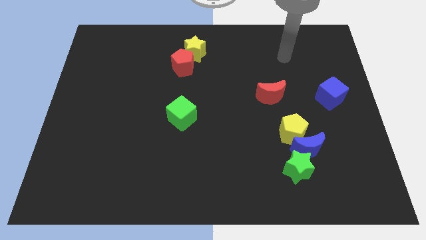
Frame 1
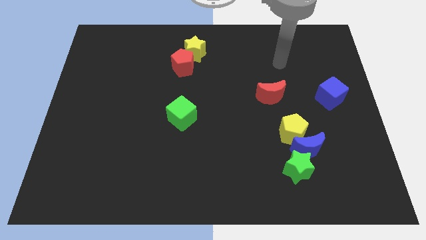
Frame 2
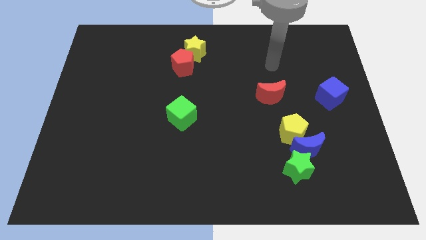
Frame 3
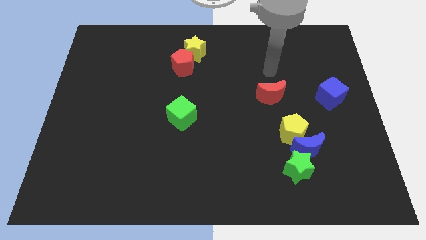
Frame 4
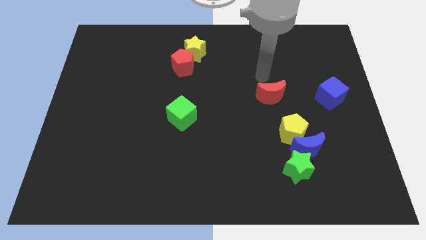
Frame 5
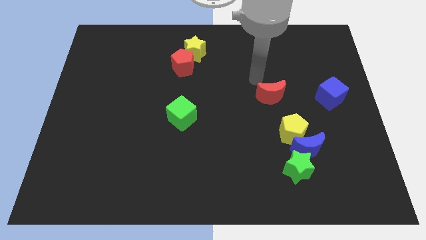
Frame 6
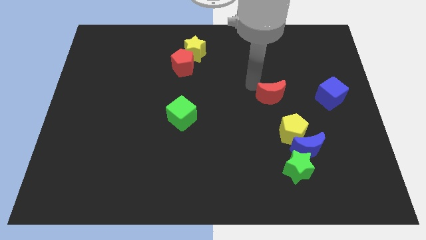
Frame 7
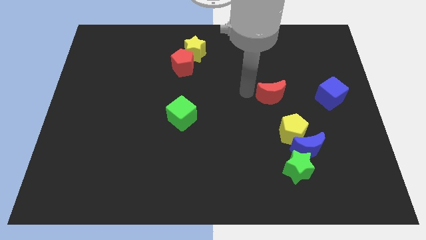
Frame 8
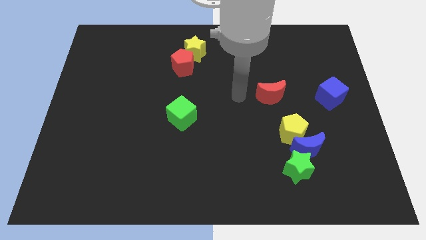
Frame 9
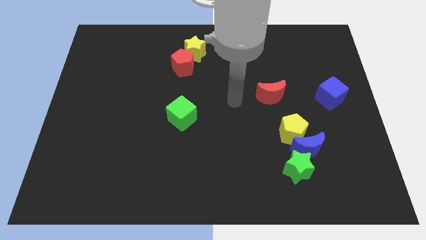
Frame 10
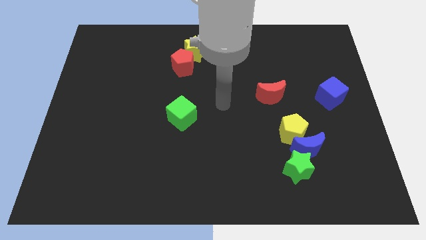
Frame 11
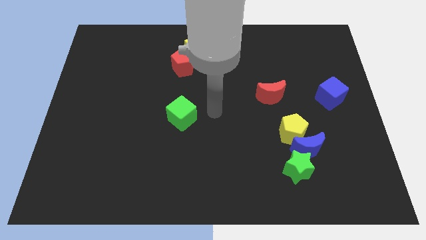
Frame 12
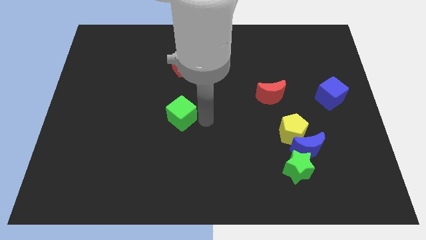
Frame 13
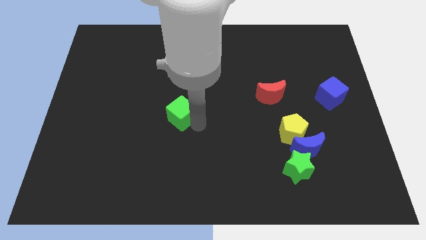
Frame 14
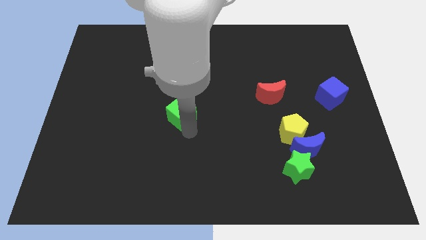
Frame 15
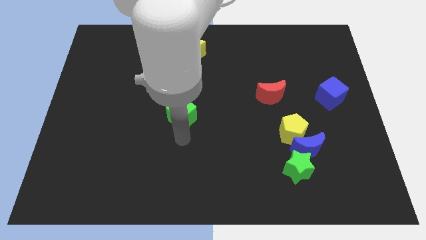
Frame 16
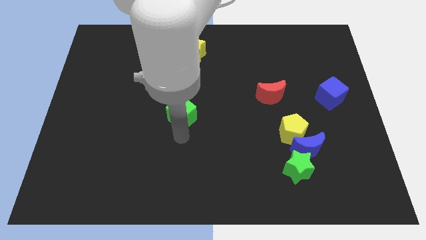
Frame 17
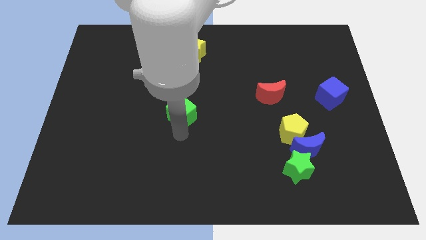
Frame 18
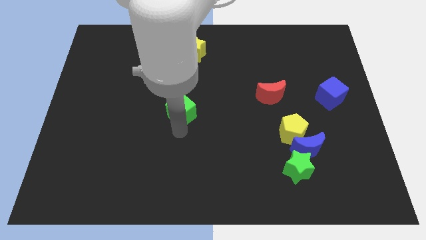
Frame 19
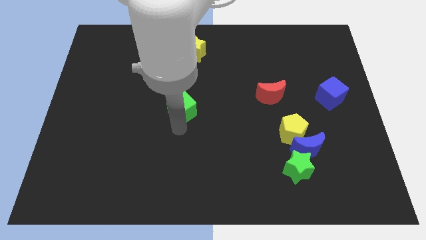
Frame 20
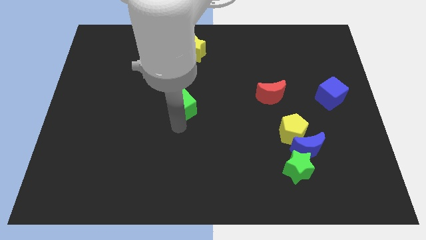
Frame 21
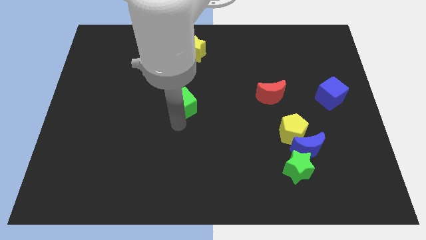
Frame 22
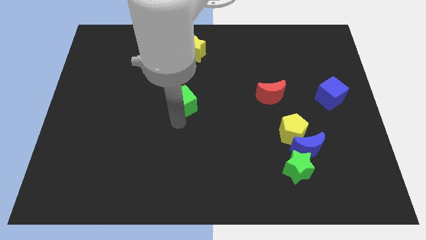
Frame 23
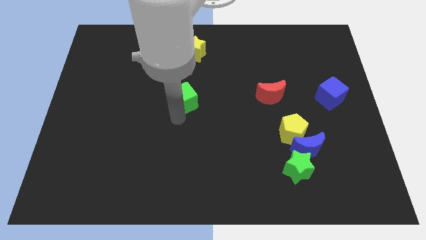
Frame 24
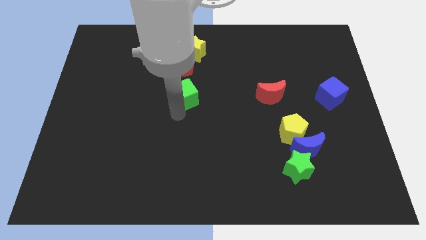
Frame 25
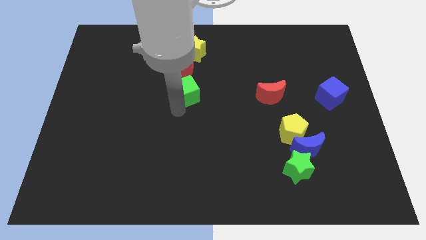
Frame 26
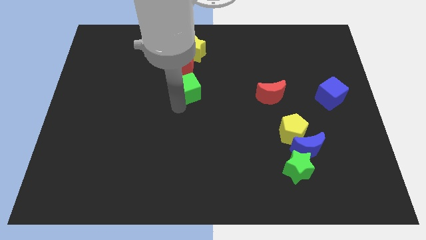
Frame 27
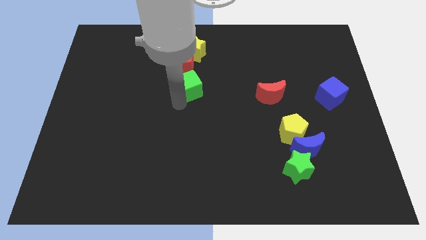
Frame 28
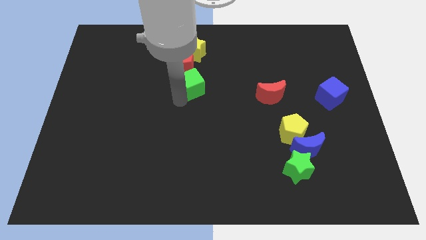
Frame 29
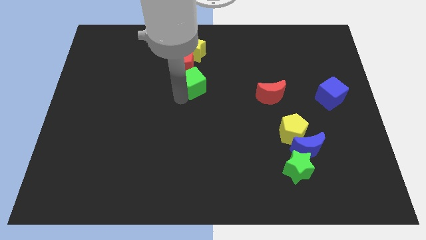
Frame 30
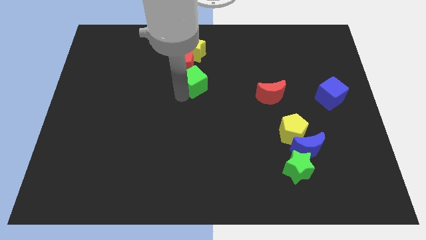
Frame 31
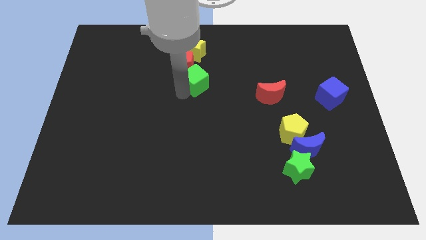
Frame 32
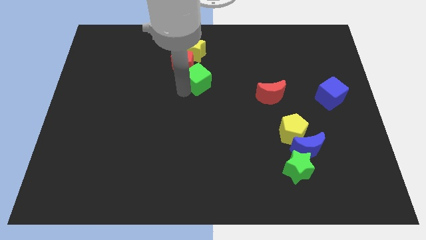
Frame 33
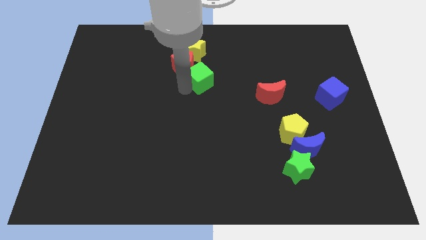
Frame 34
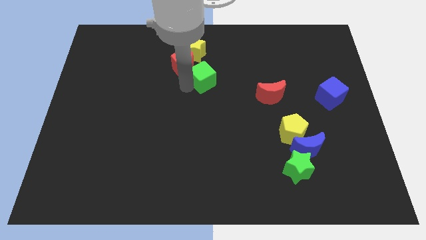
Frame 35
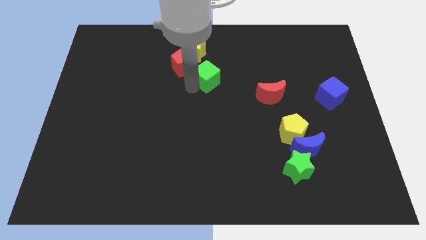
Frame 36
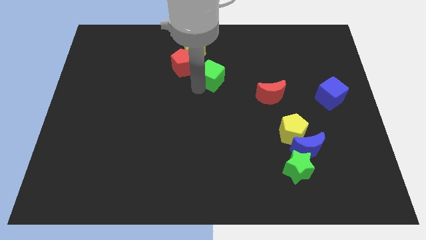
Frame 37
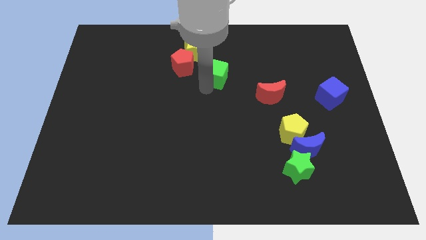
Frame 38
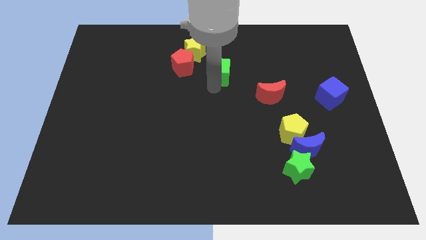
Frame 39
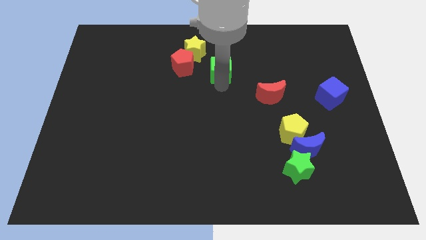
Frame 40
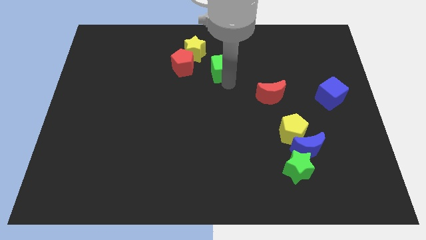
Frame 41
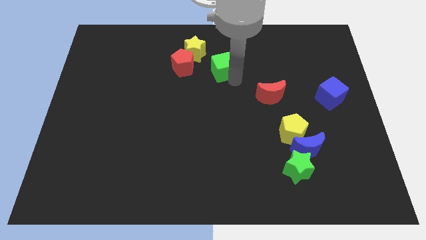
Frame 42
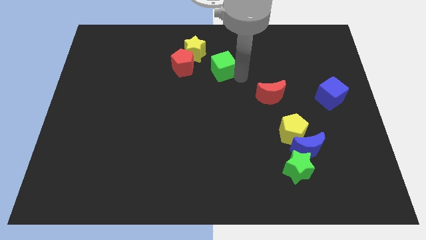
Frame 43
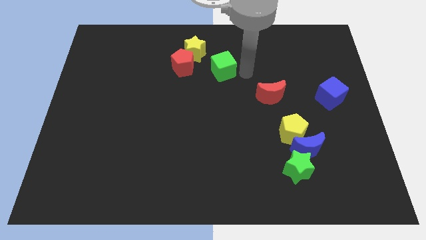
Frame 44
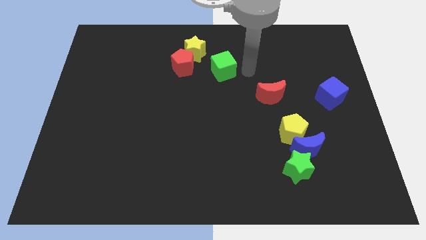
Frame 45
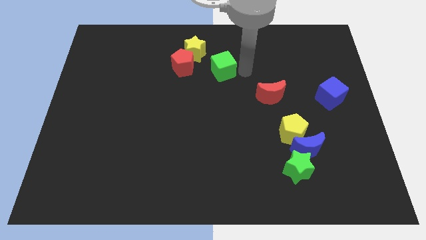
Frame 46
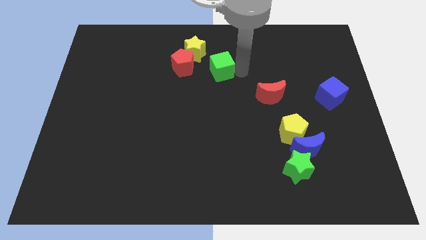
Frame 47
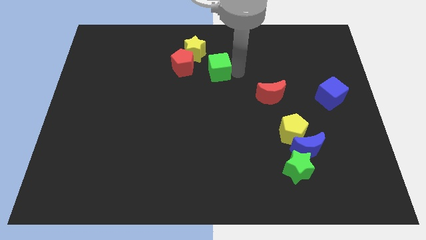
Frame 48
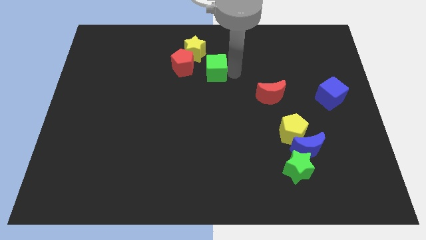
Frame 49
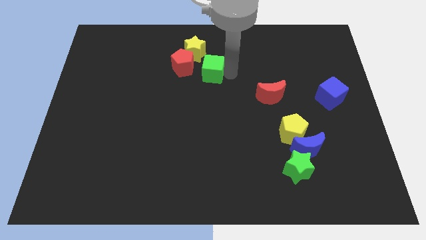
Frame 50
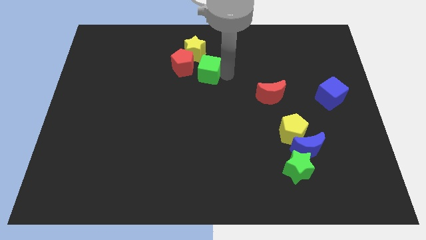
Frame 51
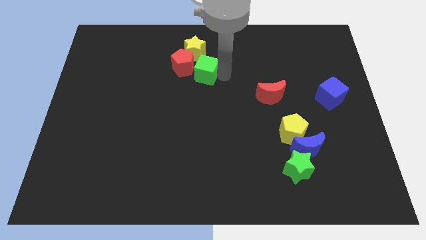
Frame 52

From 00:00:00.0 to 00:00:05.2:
push the green cube close to the red pentagon

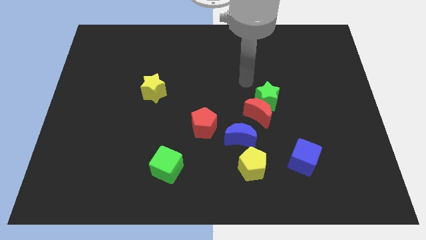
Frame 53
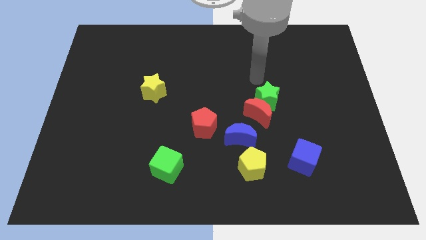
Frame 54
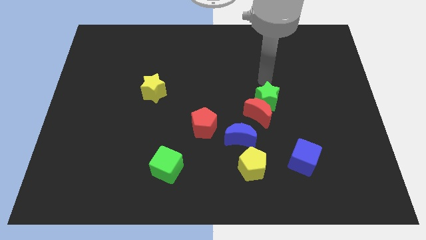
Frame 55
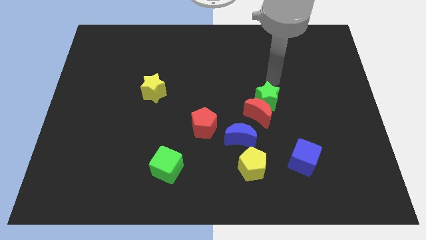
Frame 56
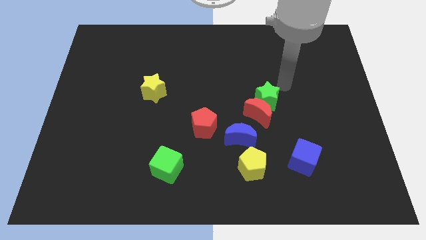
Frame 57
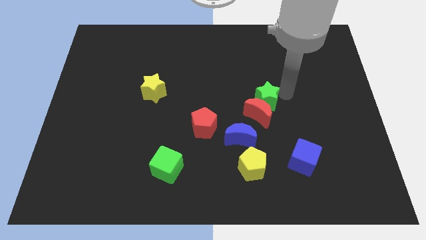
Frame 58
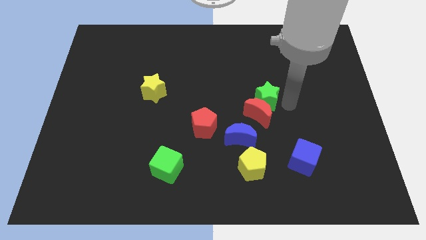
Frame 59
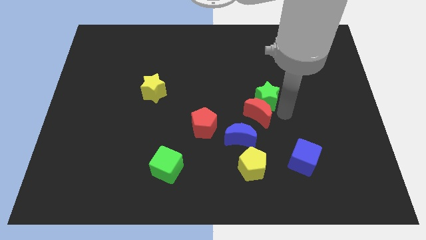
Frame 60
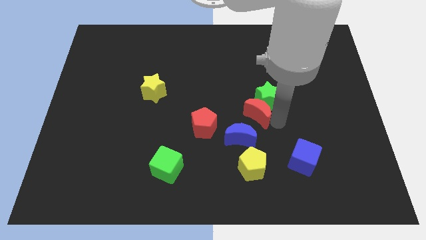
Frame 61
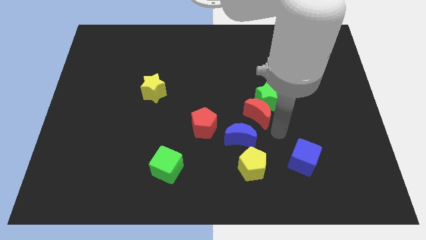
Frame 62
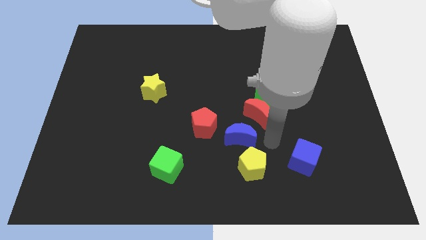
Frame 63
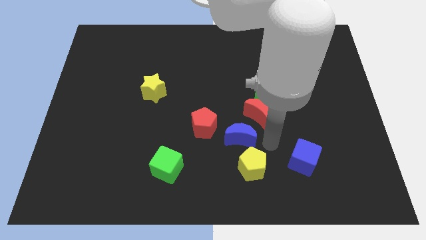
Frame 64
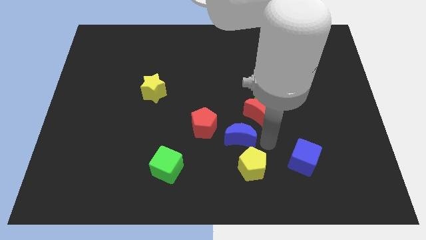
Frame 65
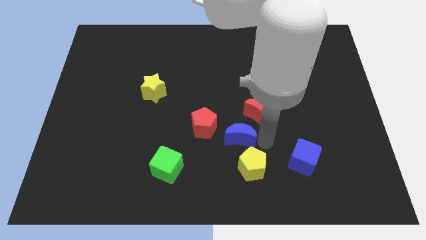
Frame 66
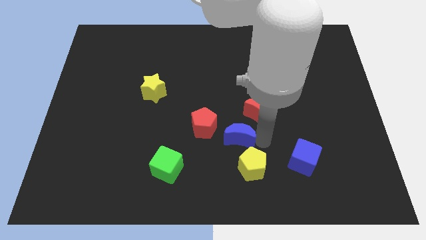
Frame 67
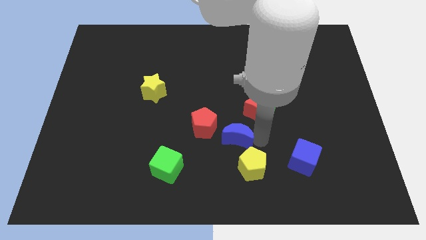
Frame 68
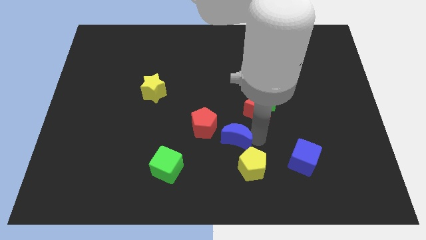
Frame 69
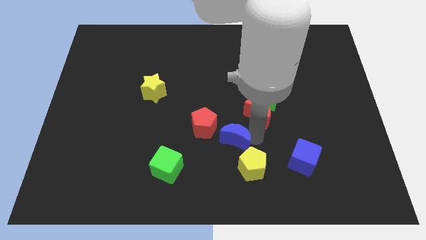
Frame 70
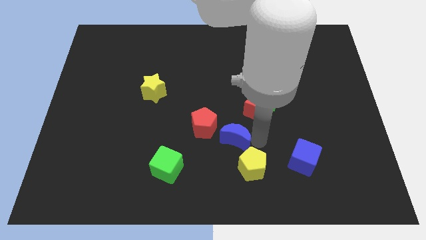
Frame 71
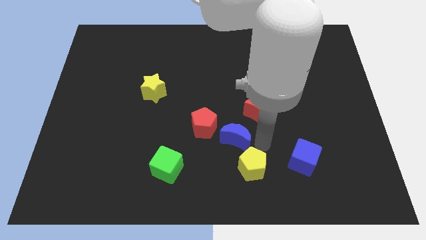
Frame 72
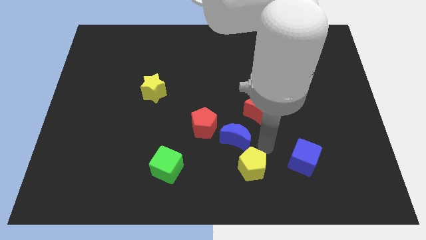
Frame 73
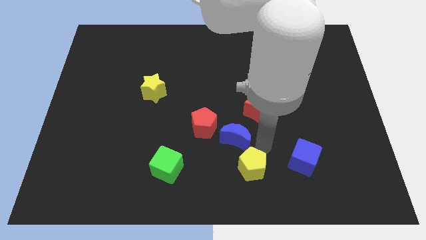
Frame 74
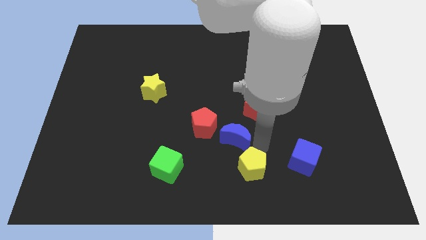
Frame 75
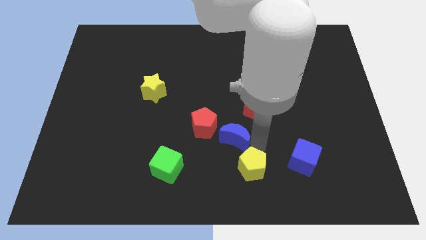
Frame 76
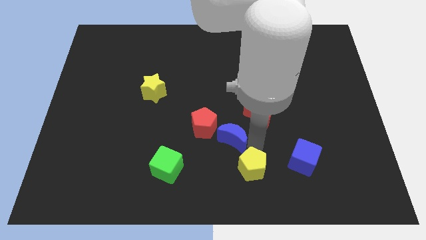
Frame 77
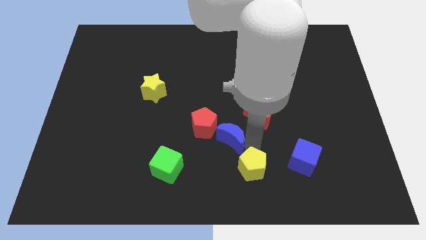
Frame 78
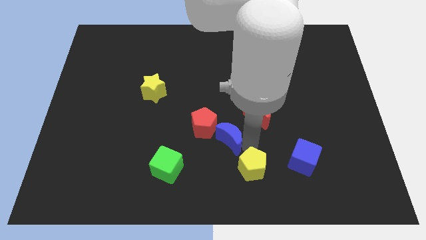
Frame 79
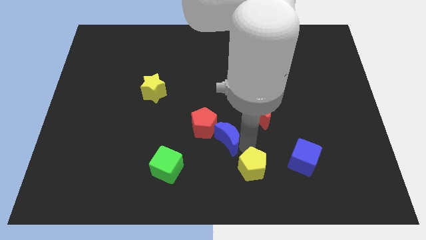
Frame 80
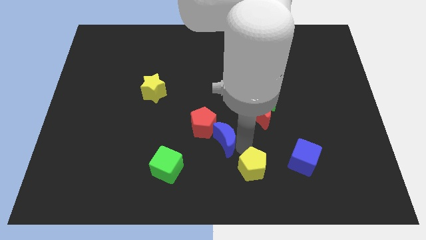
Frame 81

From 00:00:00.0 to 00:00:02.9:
push the blue moon towards the red pentagon
